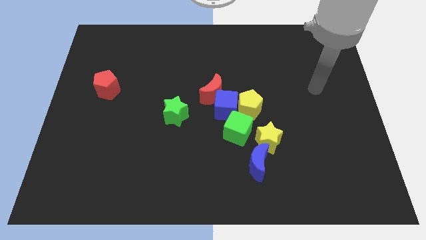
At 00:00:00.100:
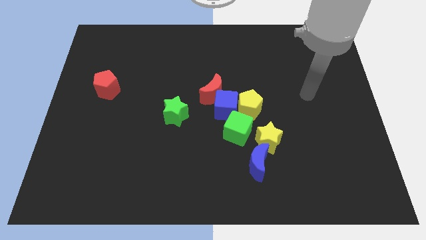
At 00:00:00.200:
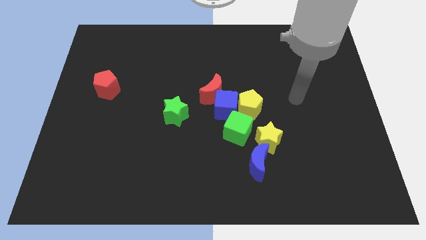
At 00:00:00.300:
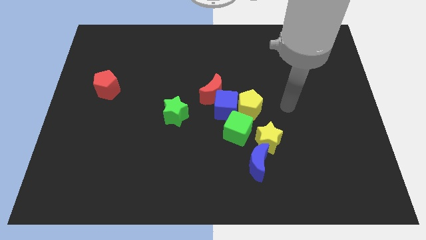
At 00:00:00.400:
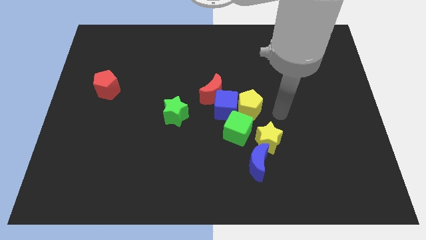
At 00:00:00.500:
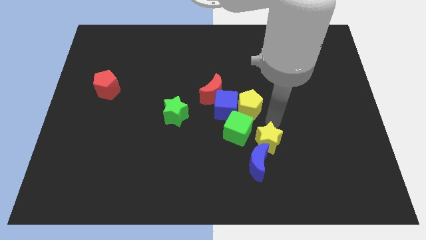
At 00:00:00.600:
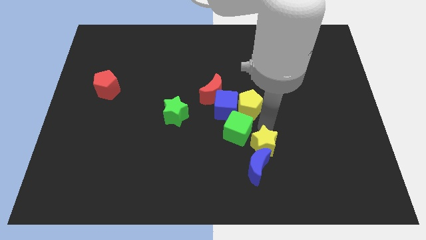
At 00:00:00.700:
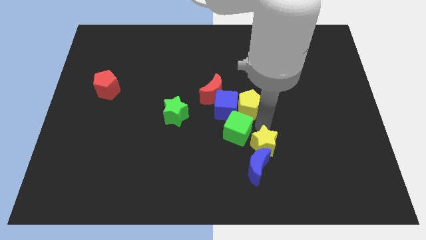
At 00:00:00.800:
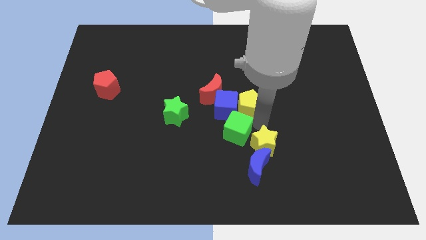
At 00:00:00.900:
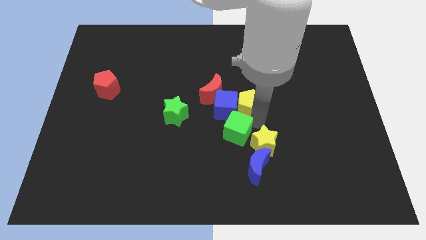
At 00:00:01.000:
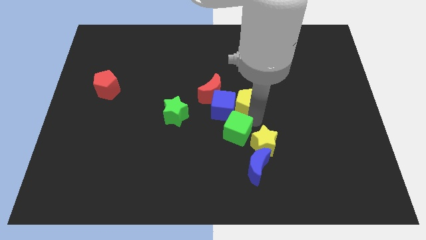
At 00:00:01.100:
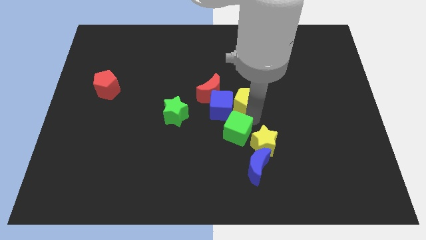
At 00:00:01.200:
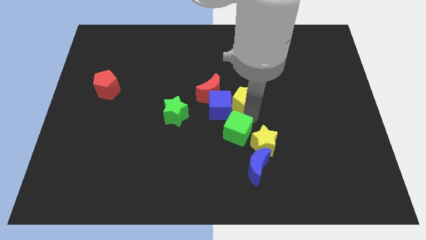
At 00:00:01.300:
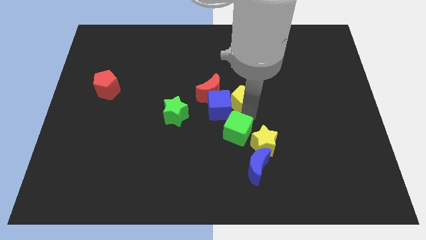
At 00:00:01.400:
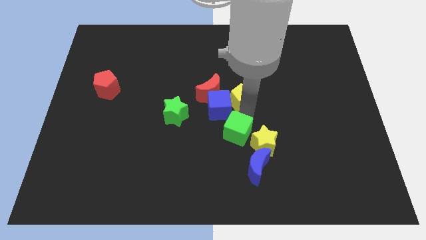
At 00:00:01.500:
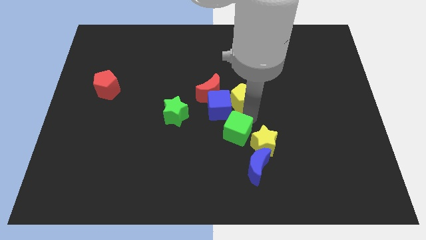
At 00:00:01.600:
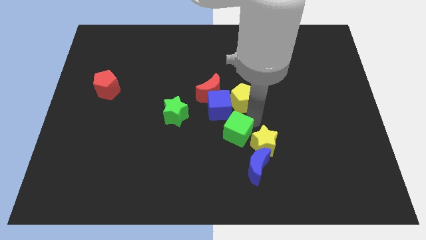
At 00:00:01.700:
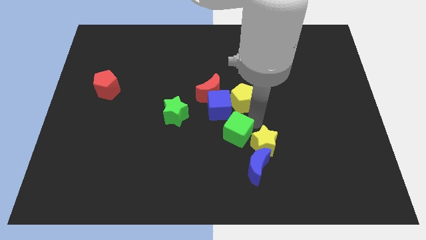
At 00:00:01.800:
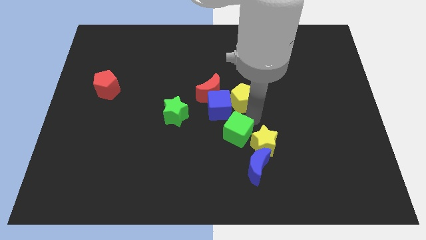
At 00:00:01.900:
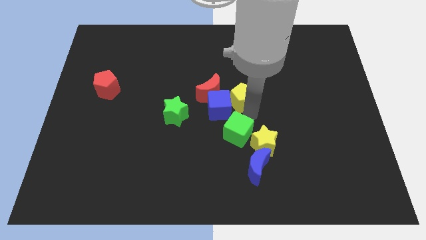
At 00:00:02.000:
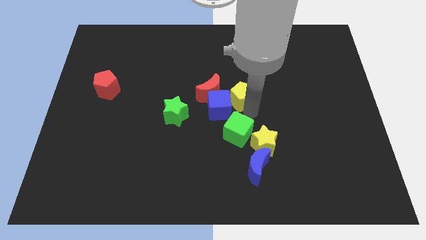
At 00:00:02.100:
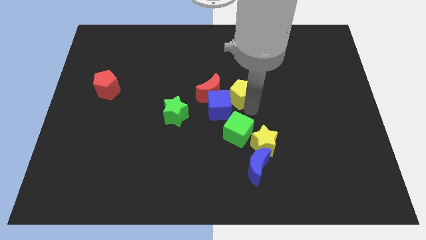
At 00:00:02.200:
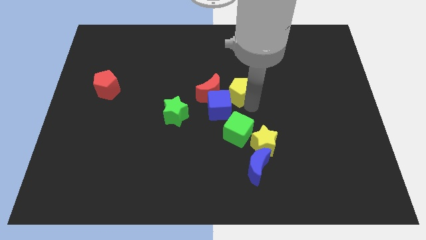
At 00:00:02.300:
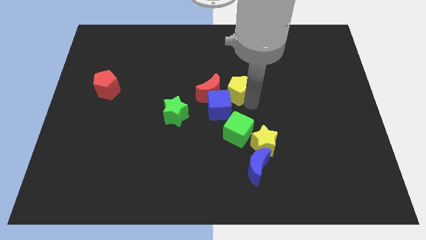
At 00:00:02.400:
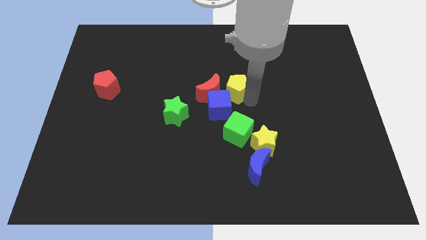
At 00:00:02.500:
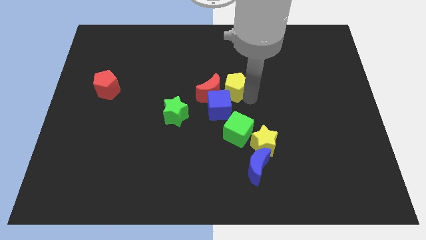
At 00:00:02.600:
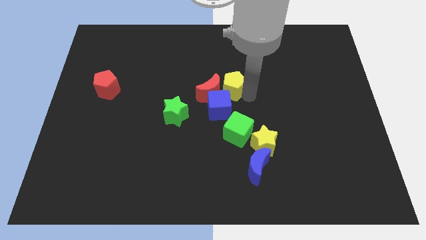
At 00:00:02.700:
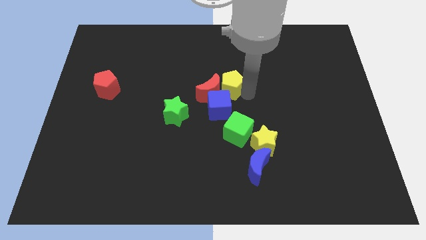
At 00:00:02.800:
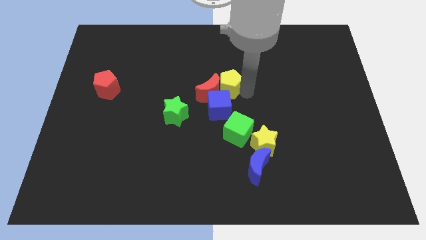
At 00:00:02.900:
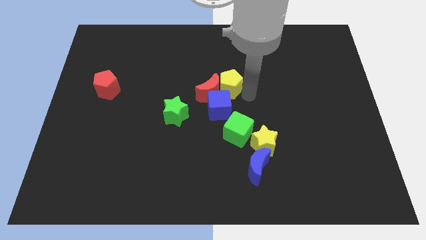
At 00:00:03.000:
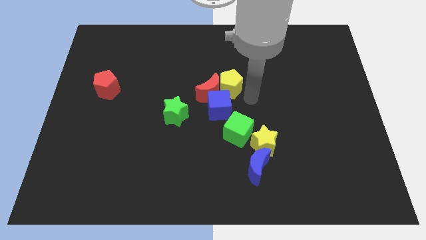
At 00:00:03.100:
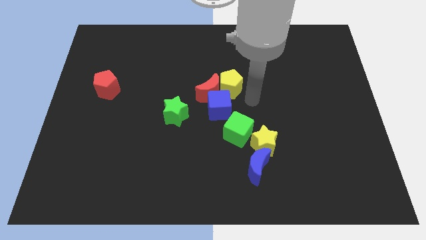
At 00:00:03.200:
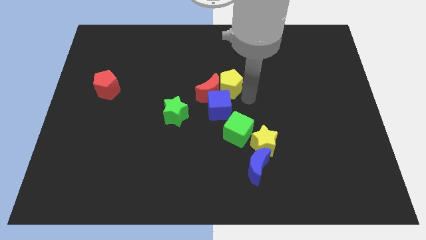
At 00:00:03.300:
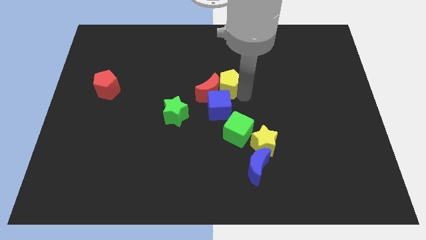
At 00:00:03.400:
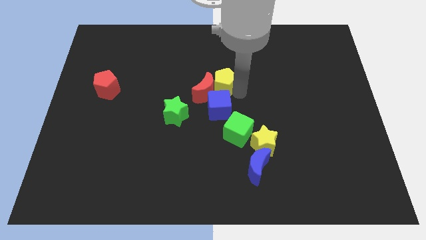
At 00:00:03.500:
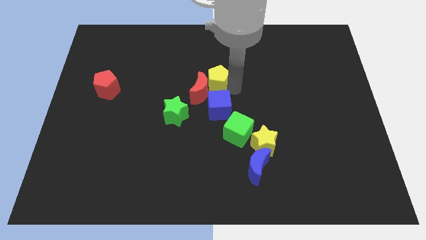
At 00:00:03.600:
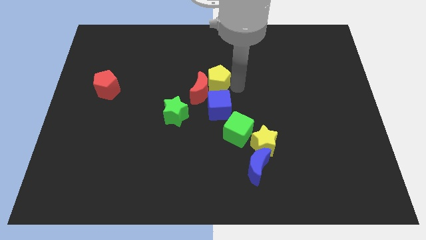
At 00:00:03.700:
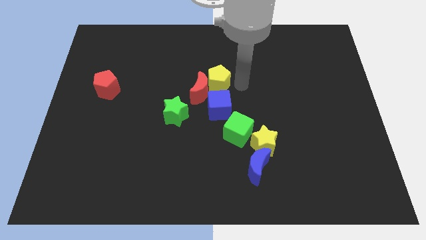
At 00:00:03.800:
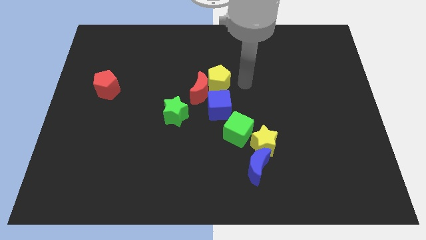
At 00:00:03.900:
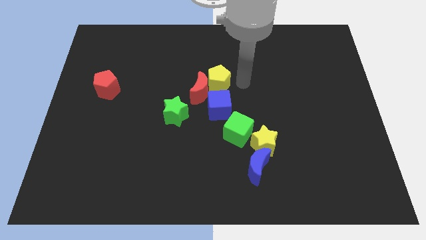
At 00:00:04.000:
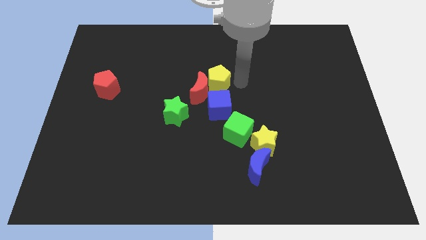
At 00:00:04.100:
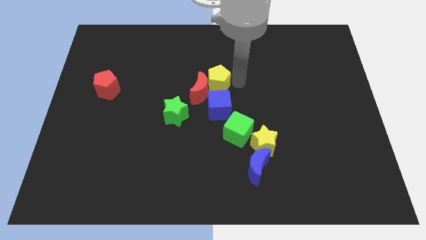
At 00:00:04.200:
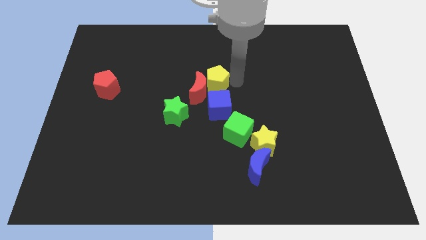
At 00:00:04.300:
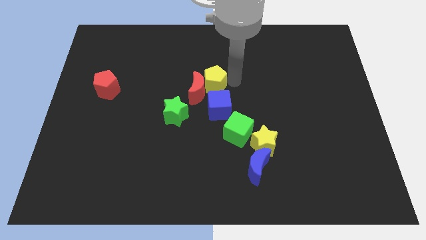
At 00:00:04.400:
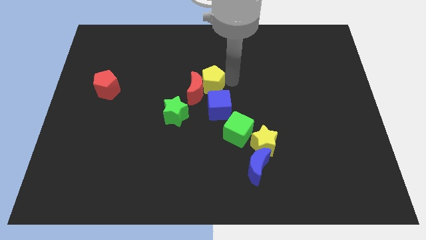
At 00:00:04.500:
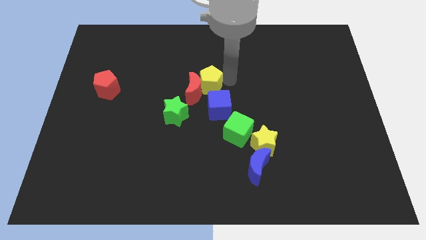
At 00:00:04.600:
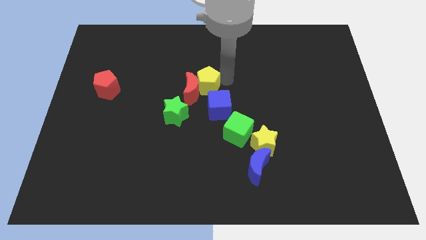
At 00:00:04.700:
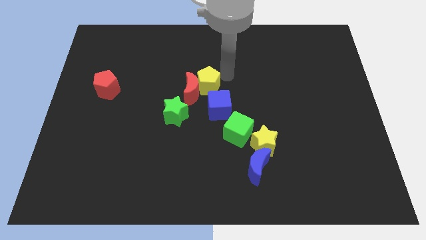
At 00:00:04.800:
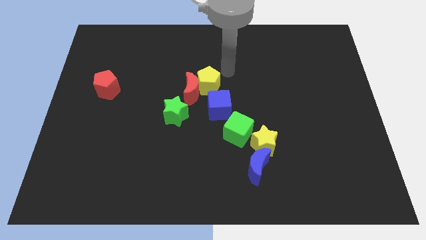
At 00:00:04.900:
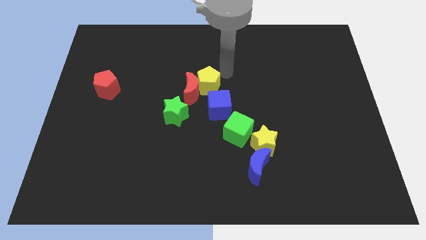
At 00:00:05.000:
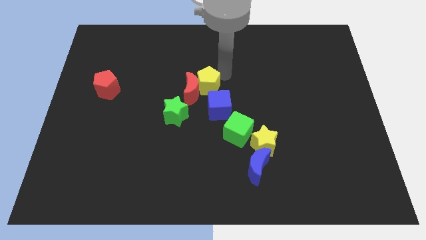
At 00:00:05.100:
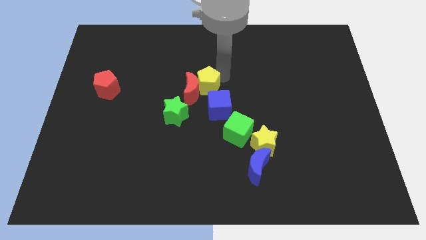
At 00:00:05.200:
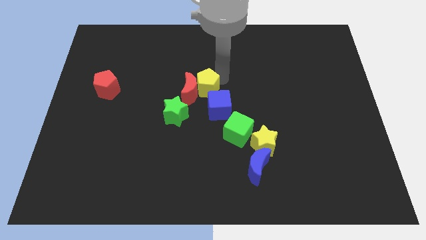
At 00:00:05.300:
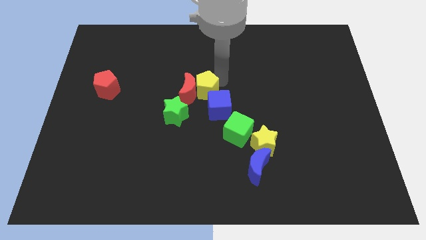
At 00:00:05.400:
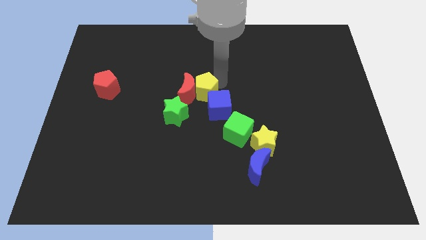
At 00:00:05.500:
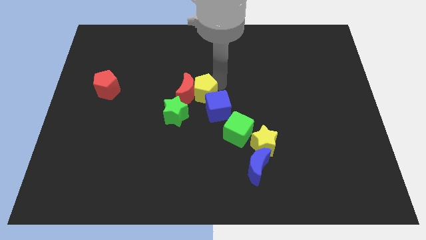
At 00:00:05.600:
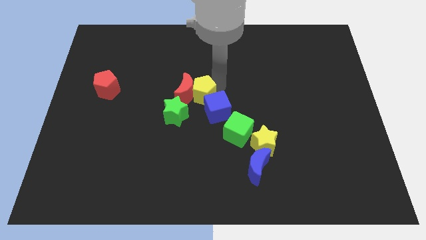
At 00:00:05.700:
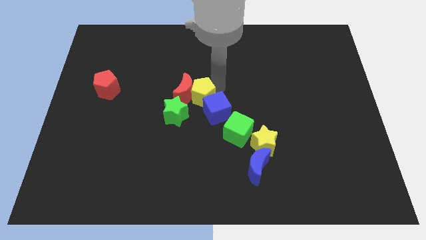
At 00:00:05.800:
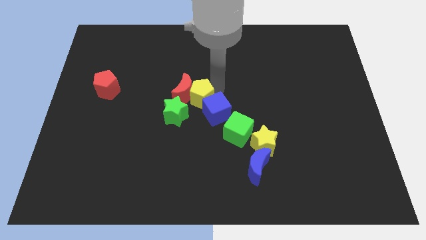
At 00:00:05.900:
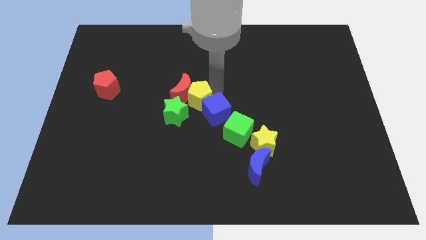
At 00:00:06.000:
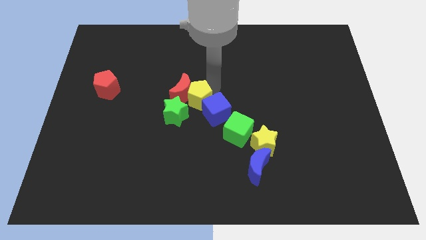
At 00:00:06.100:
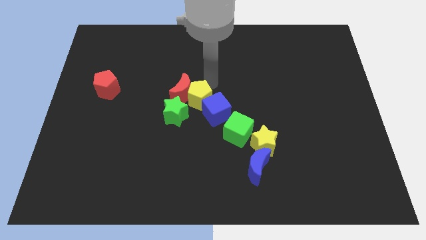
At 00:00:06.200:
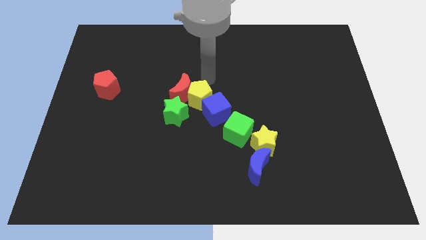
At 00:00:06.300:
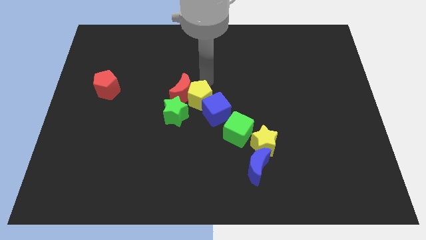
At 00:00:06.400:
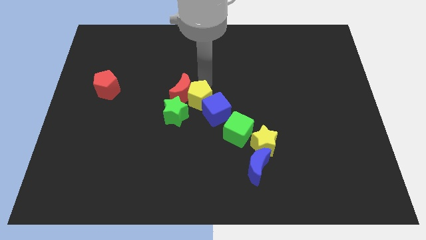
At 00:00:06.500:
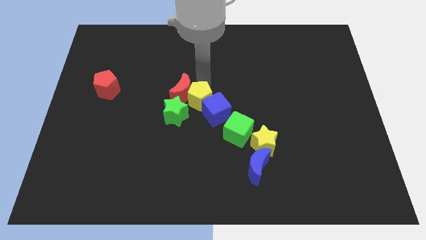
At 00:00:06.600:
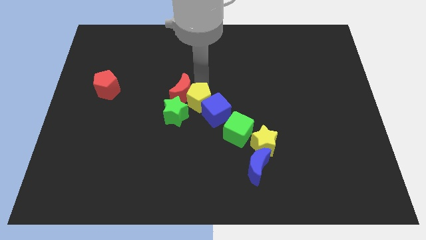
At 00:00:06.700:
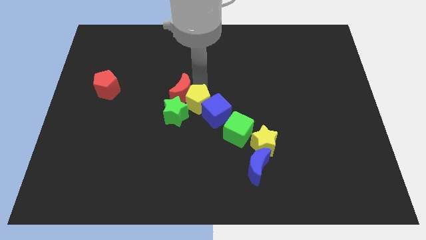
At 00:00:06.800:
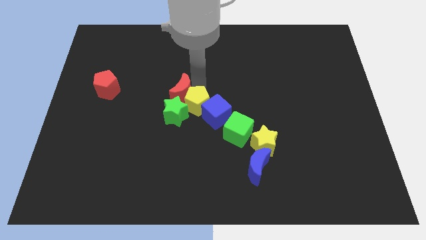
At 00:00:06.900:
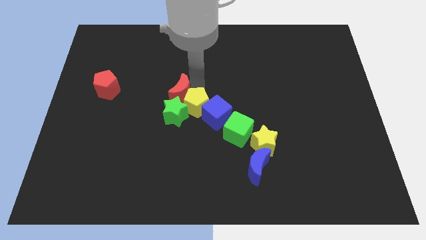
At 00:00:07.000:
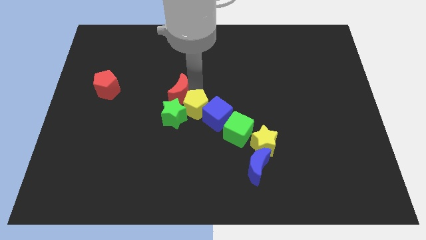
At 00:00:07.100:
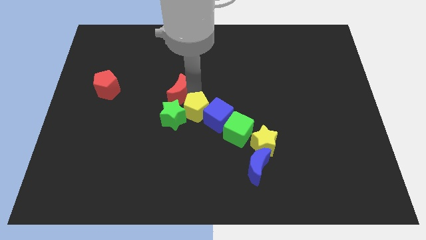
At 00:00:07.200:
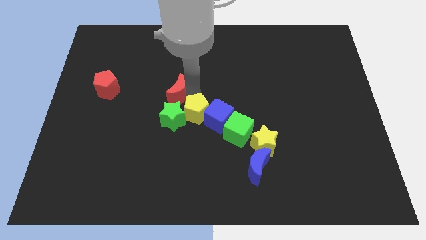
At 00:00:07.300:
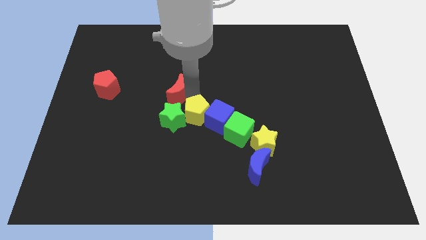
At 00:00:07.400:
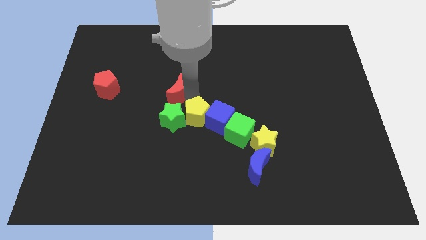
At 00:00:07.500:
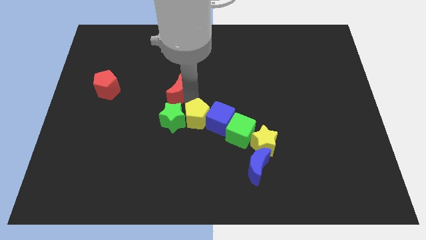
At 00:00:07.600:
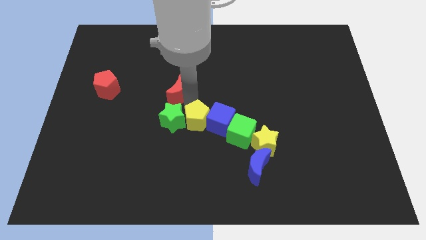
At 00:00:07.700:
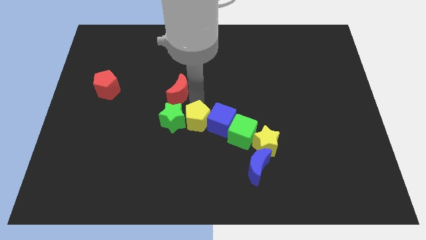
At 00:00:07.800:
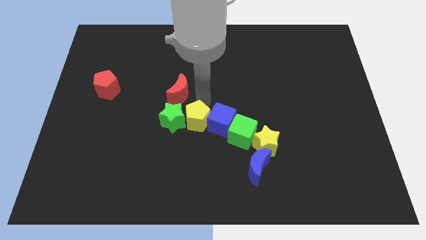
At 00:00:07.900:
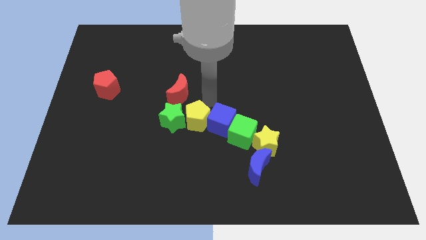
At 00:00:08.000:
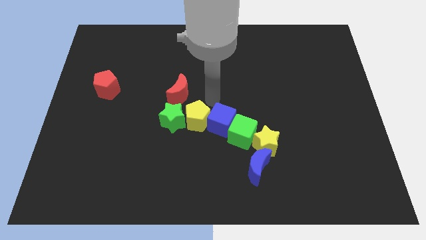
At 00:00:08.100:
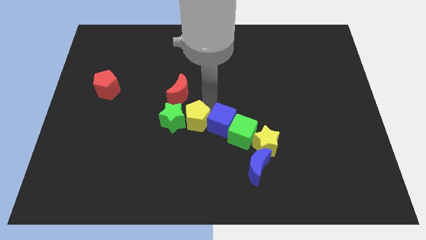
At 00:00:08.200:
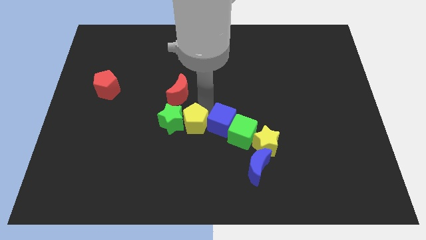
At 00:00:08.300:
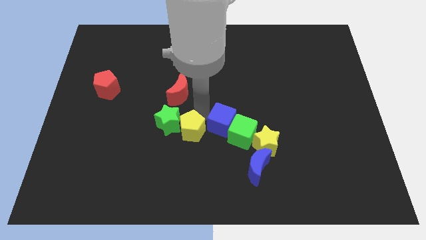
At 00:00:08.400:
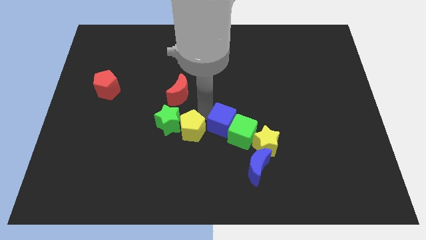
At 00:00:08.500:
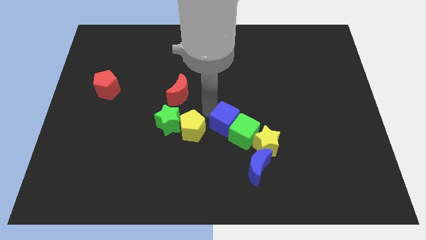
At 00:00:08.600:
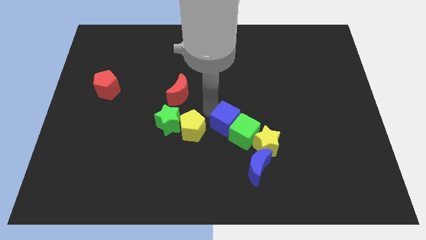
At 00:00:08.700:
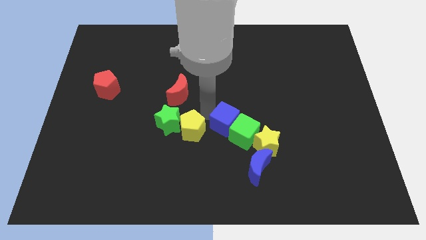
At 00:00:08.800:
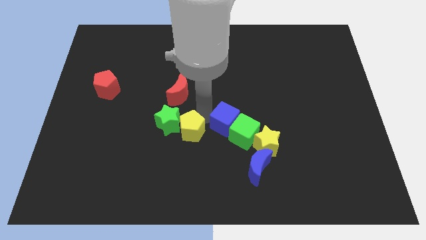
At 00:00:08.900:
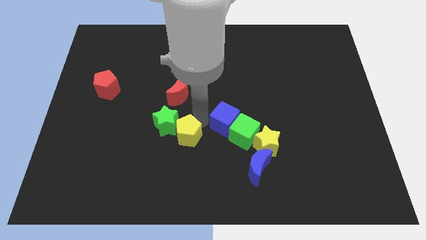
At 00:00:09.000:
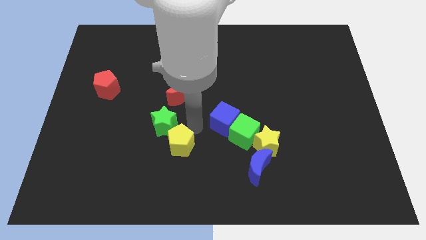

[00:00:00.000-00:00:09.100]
put the yellow pentagon to the bottom side of the green star
